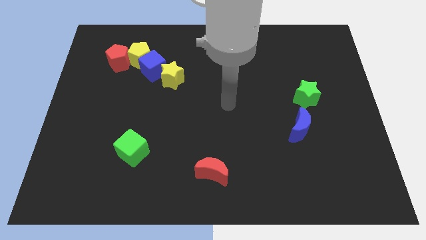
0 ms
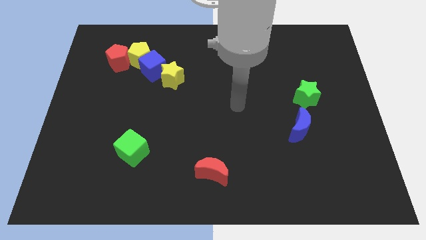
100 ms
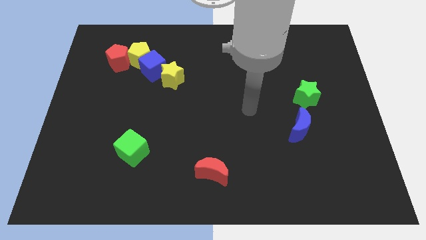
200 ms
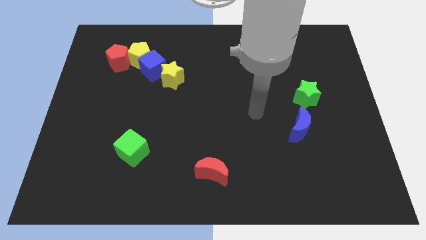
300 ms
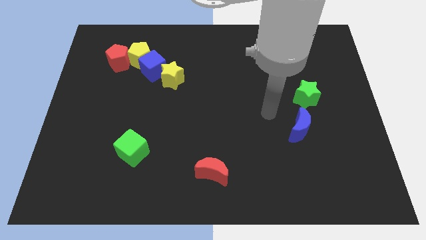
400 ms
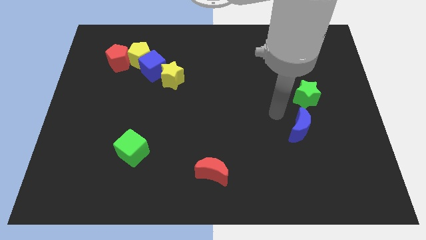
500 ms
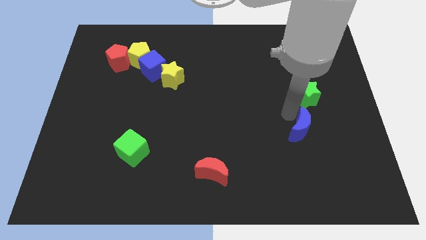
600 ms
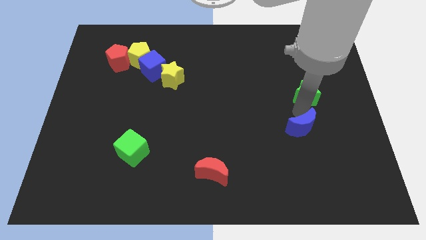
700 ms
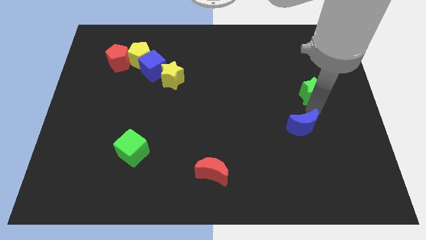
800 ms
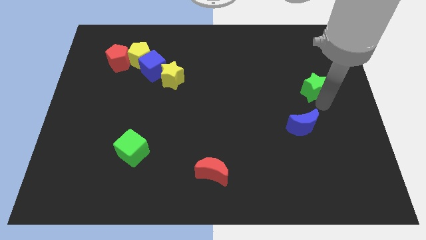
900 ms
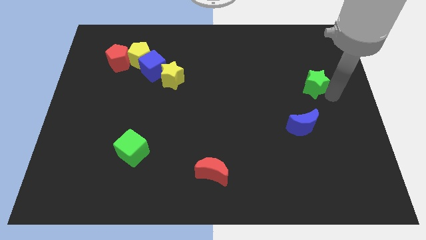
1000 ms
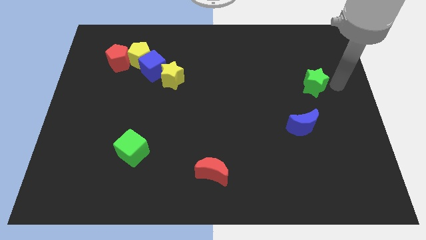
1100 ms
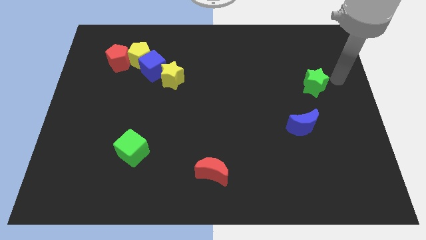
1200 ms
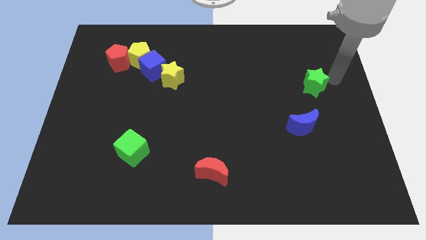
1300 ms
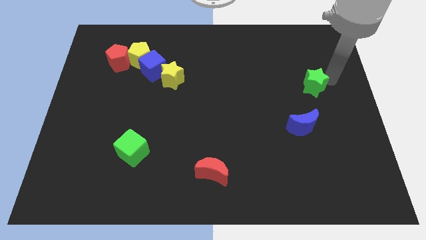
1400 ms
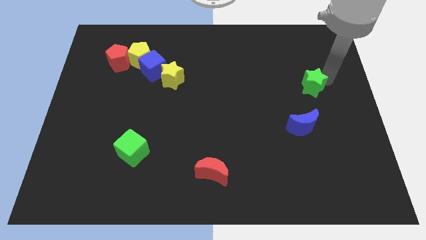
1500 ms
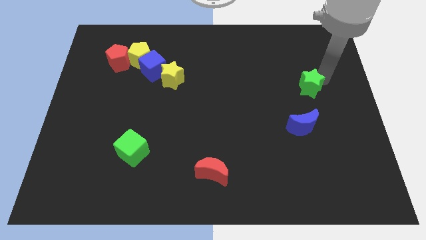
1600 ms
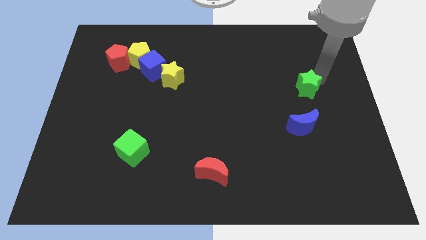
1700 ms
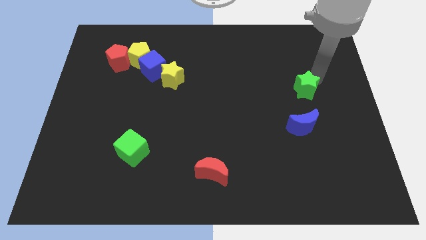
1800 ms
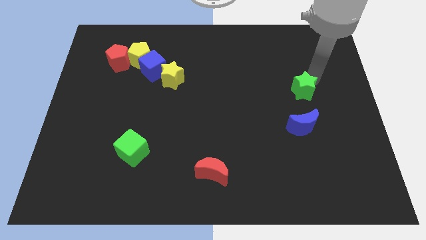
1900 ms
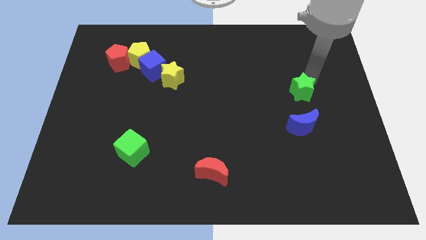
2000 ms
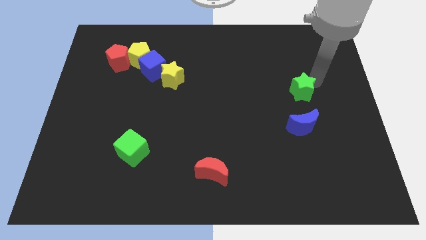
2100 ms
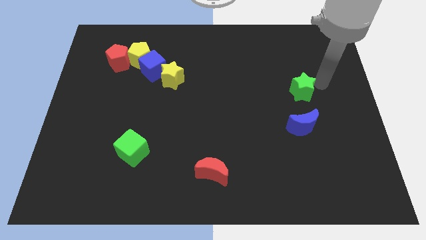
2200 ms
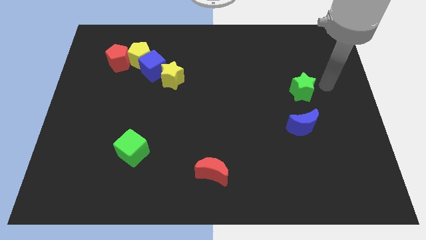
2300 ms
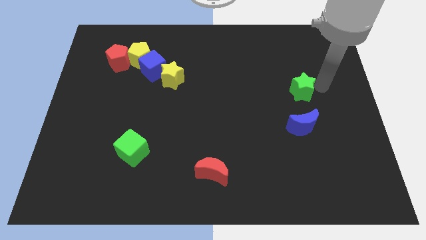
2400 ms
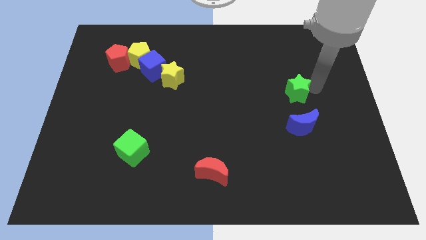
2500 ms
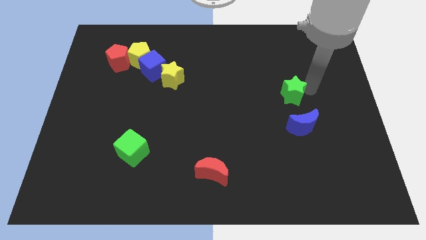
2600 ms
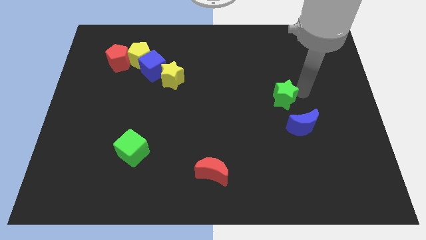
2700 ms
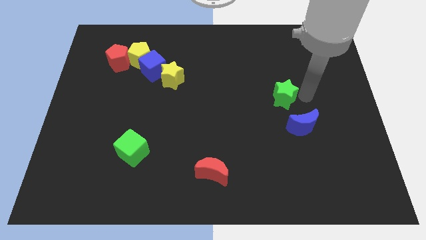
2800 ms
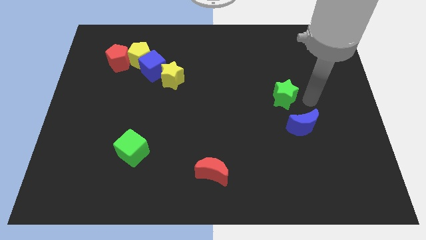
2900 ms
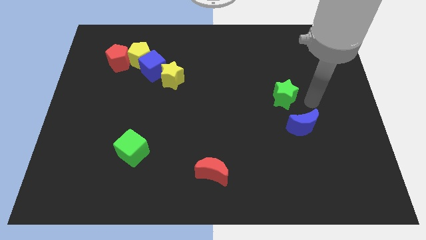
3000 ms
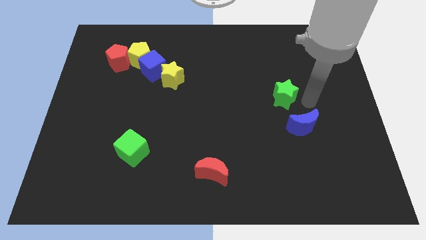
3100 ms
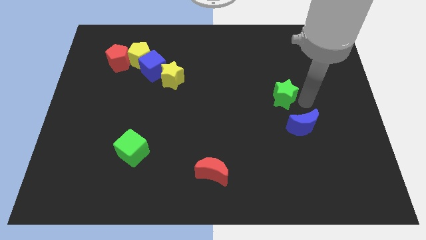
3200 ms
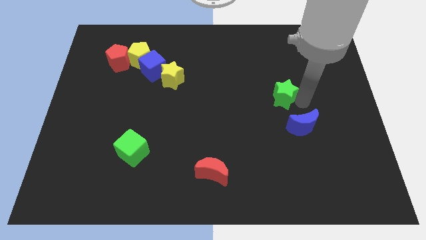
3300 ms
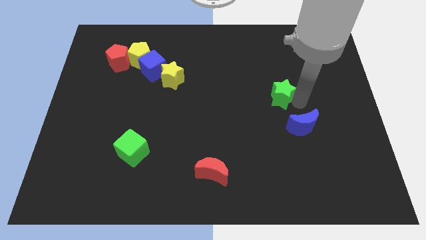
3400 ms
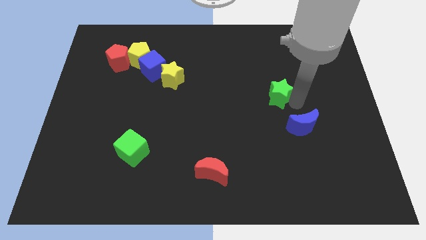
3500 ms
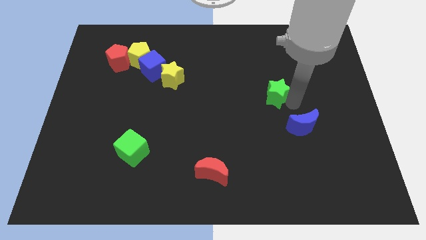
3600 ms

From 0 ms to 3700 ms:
move the green star left a little bit

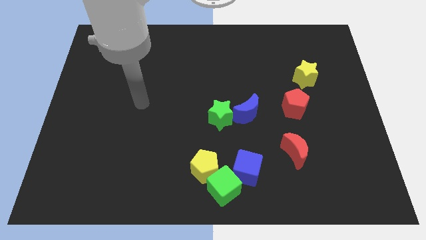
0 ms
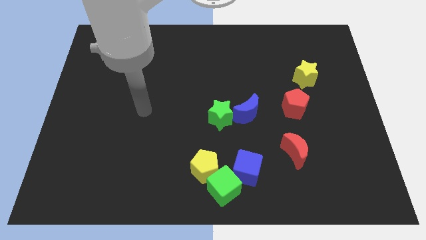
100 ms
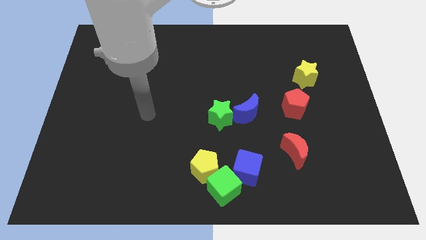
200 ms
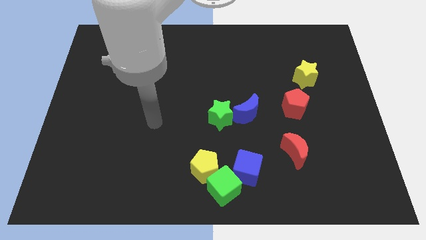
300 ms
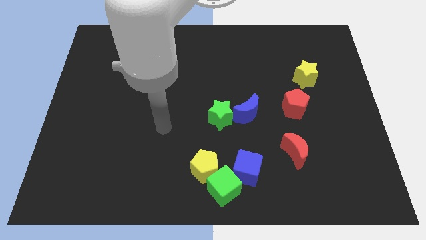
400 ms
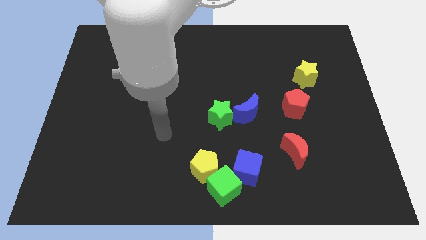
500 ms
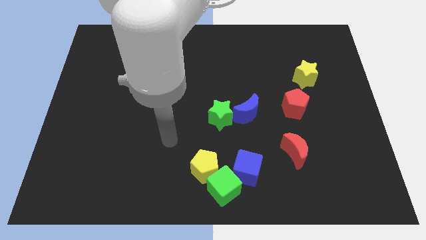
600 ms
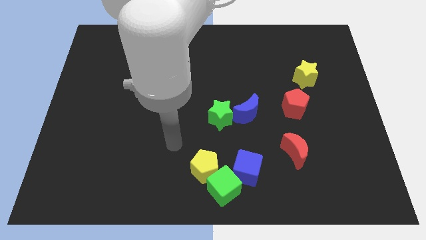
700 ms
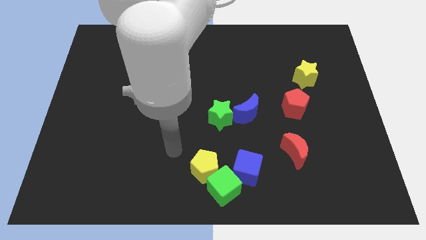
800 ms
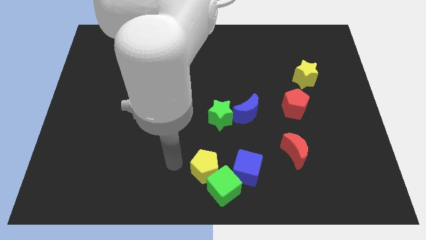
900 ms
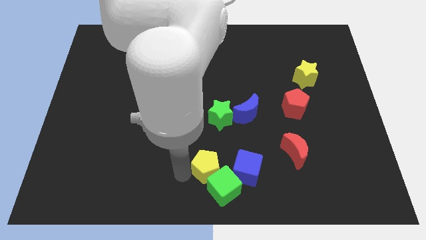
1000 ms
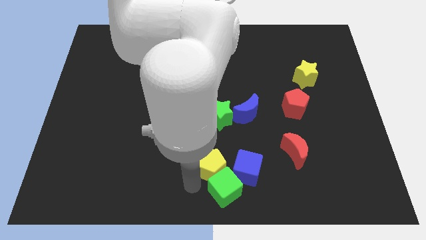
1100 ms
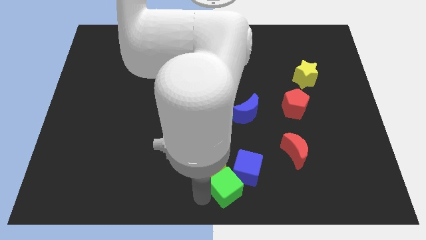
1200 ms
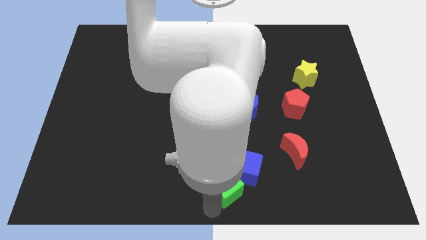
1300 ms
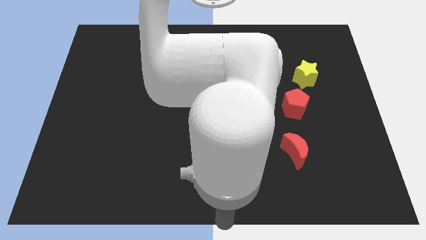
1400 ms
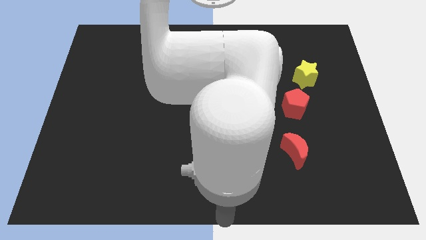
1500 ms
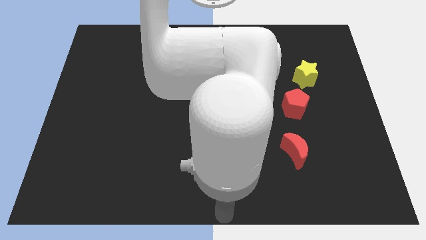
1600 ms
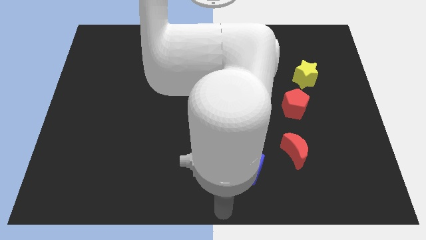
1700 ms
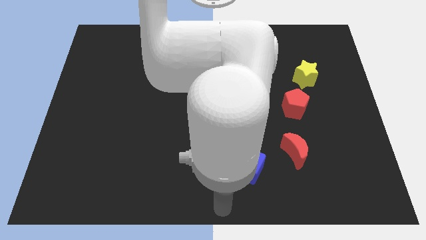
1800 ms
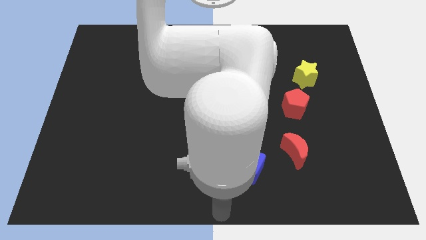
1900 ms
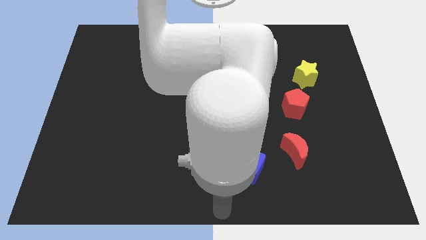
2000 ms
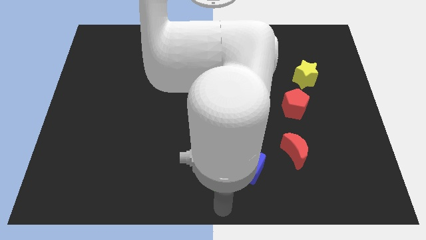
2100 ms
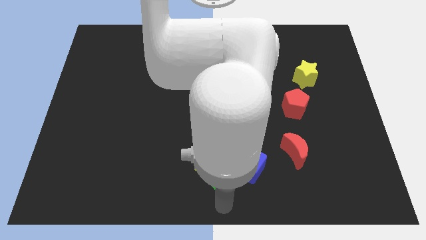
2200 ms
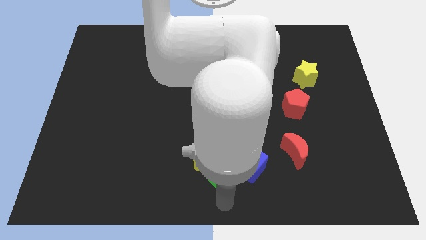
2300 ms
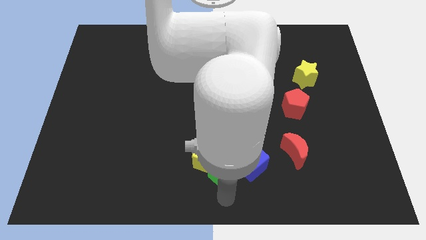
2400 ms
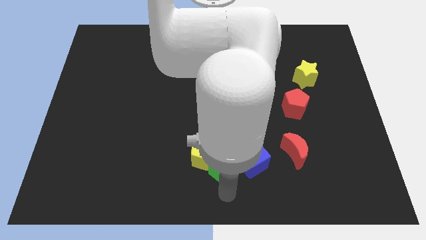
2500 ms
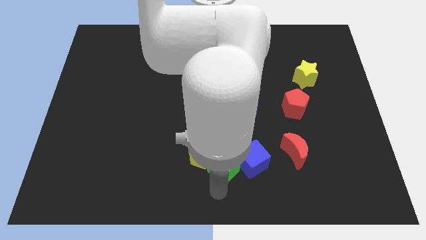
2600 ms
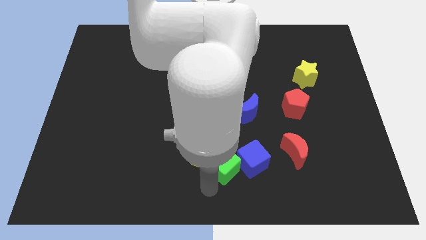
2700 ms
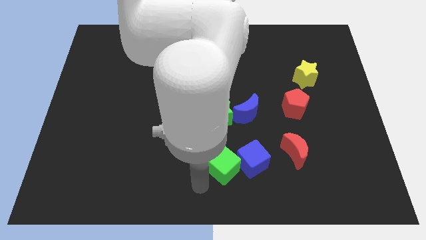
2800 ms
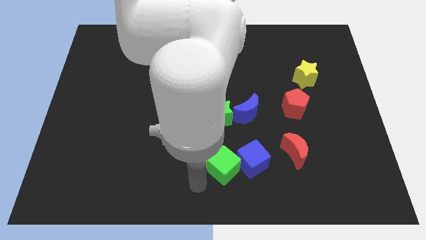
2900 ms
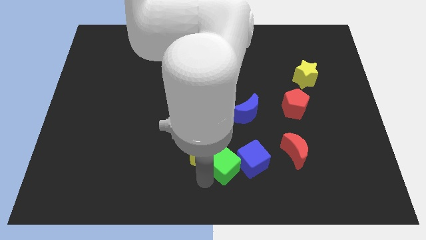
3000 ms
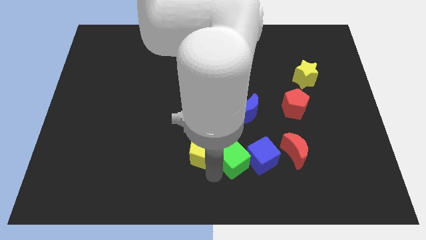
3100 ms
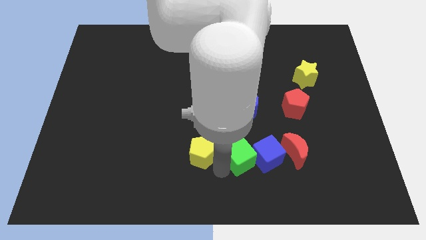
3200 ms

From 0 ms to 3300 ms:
slide the green cube slightly up and to the right diagonally

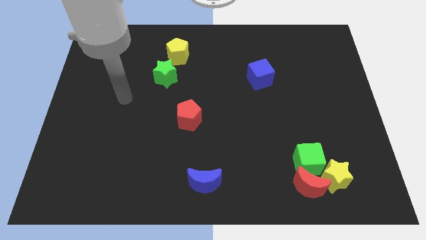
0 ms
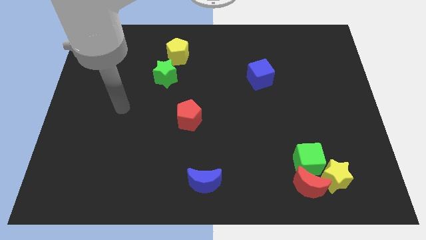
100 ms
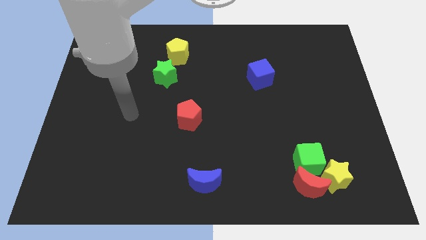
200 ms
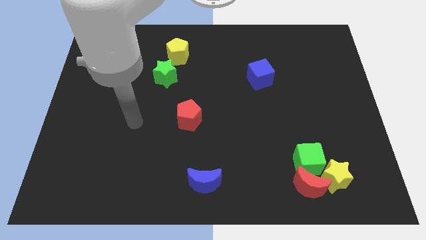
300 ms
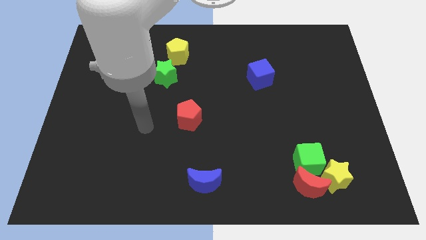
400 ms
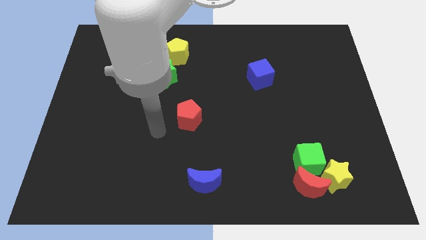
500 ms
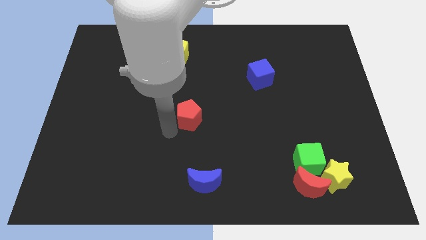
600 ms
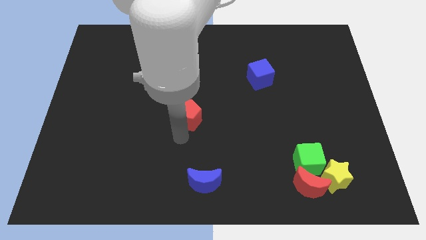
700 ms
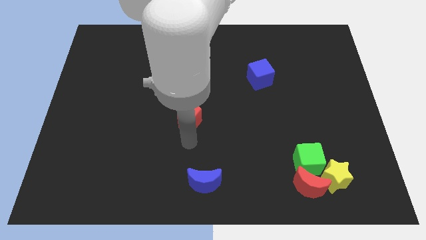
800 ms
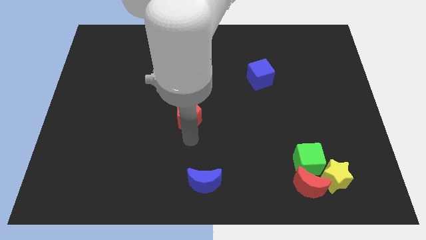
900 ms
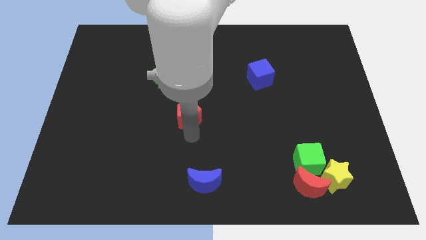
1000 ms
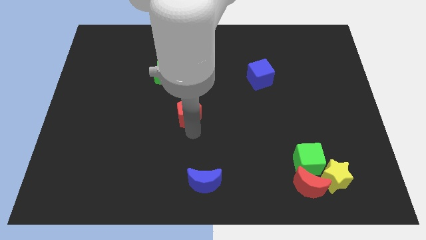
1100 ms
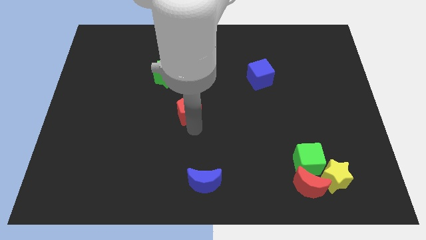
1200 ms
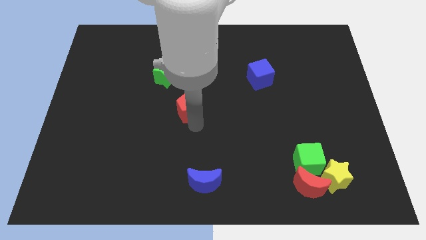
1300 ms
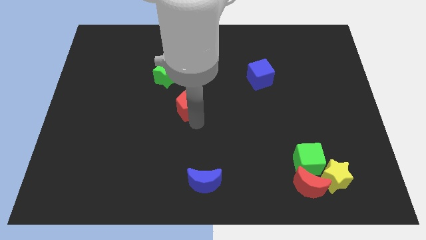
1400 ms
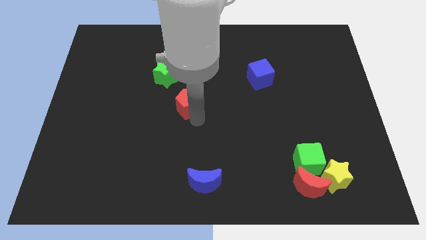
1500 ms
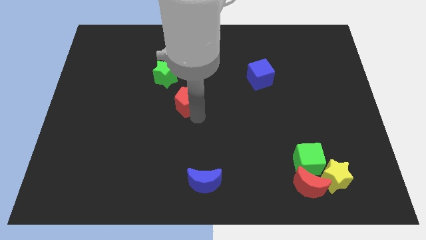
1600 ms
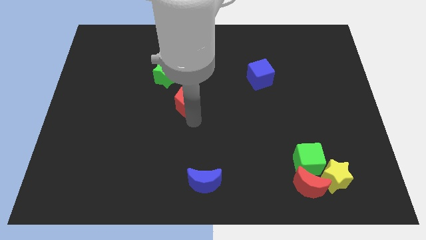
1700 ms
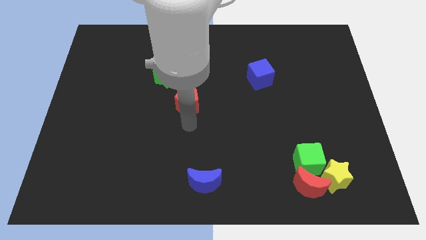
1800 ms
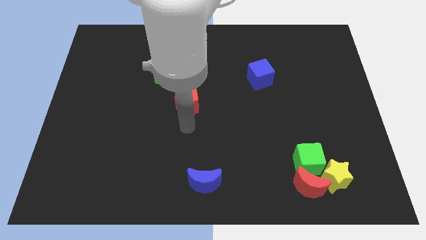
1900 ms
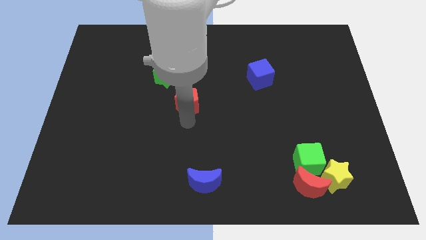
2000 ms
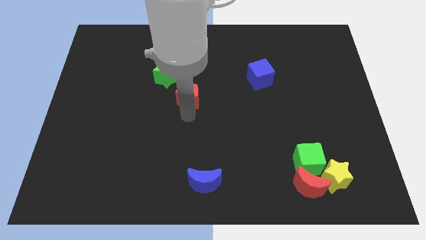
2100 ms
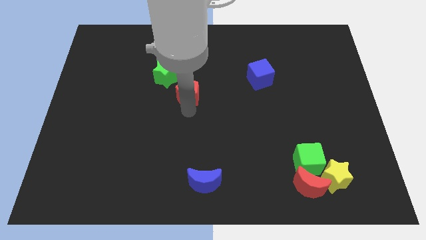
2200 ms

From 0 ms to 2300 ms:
slightly slide the red pentagon up
